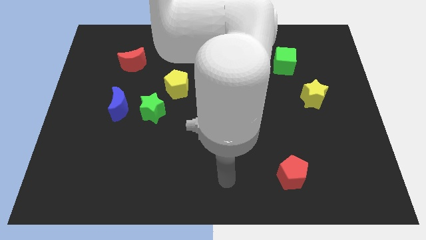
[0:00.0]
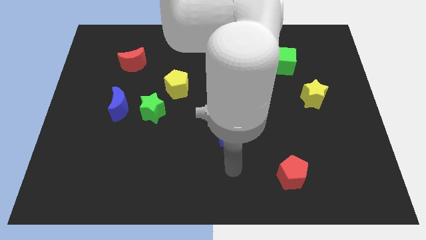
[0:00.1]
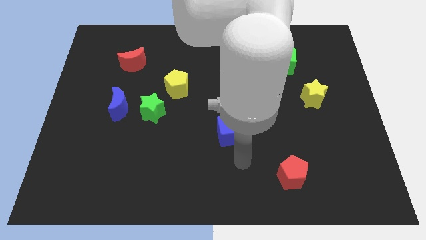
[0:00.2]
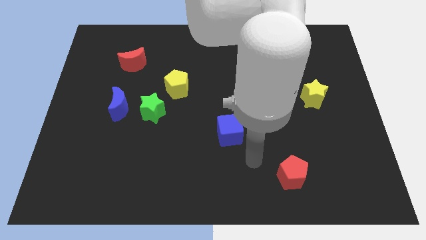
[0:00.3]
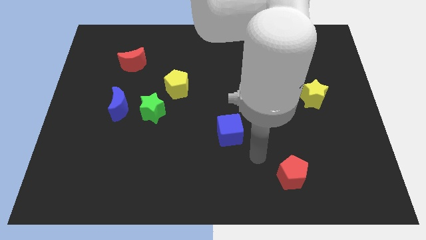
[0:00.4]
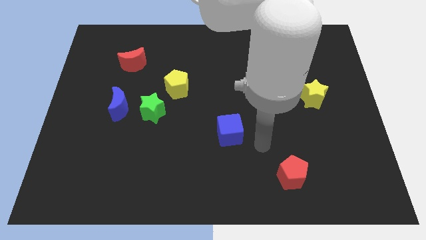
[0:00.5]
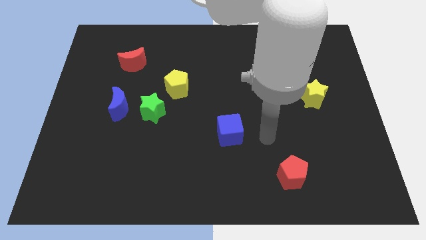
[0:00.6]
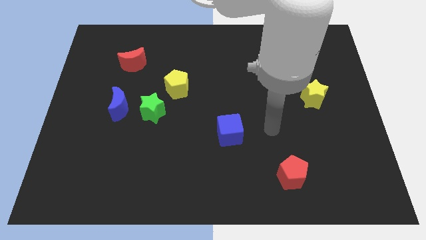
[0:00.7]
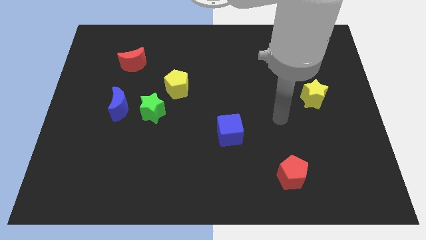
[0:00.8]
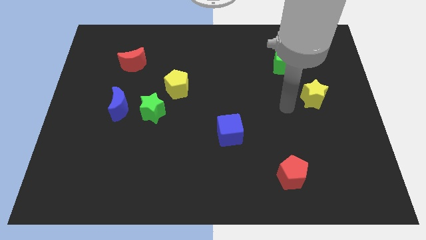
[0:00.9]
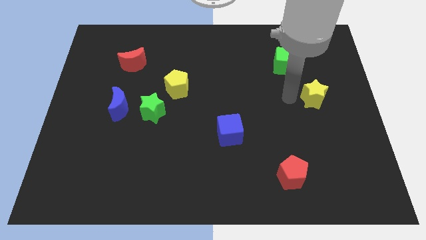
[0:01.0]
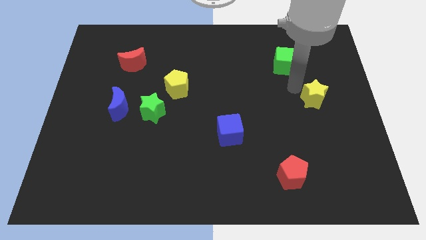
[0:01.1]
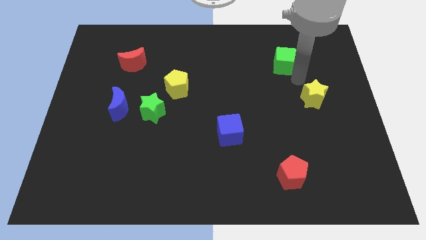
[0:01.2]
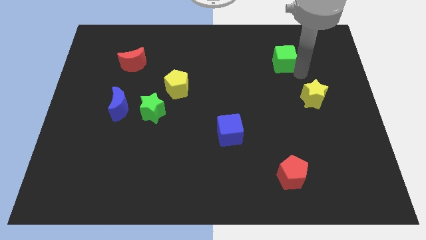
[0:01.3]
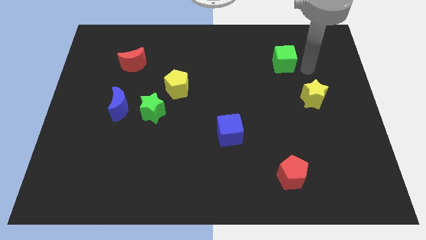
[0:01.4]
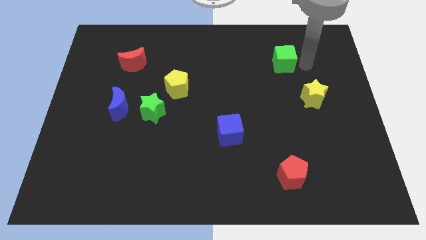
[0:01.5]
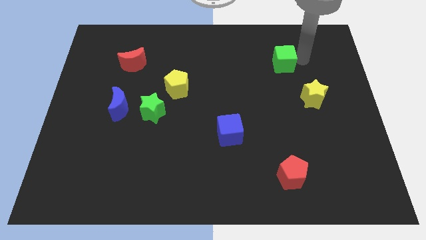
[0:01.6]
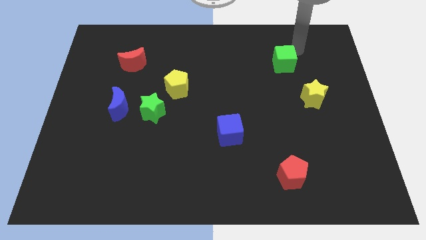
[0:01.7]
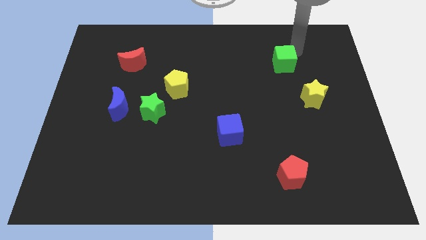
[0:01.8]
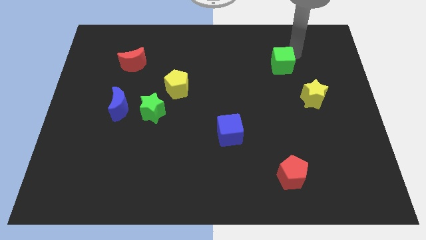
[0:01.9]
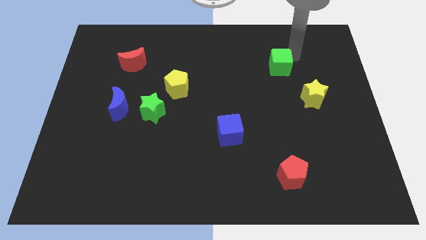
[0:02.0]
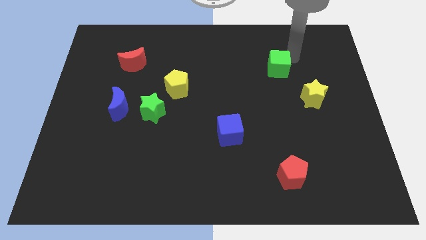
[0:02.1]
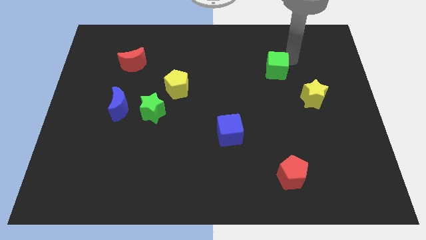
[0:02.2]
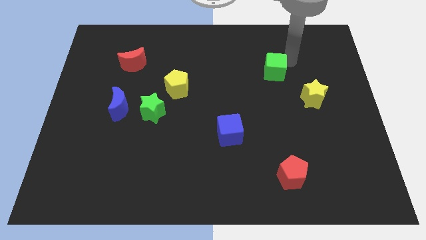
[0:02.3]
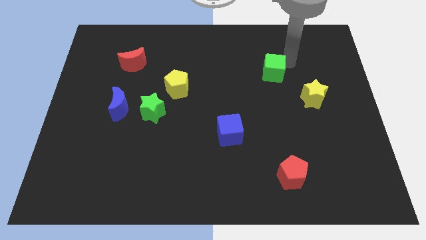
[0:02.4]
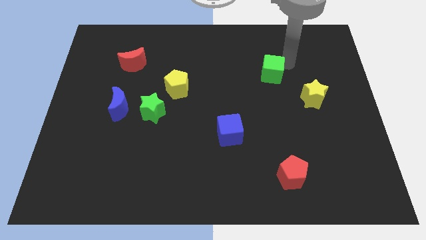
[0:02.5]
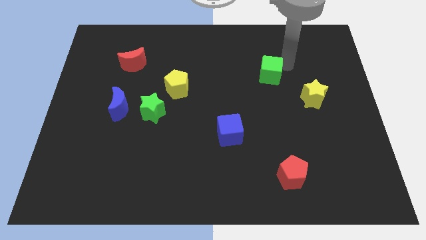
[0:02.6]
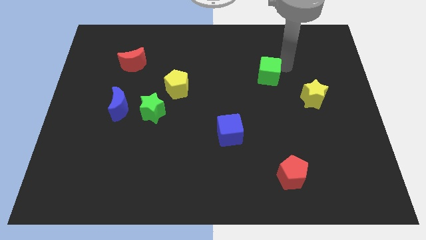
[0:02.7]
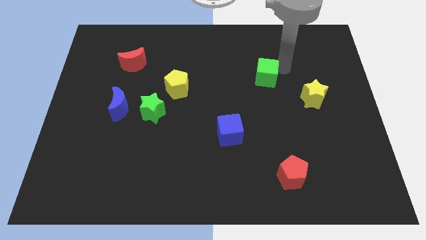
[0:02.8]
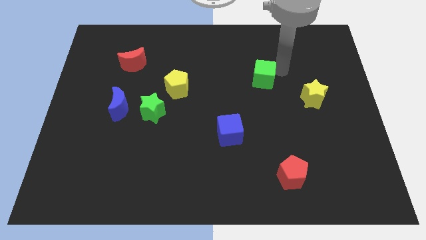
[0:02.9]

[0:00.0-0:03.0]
slightly push the green cube downwards and left diagonally

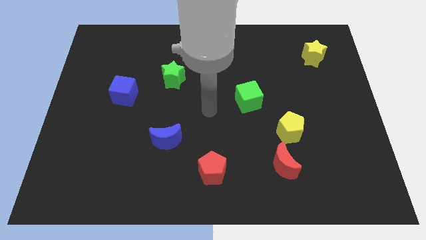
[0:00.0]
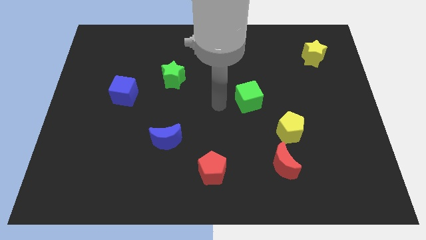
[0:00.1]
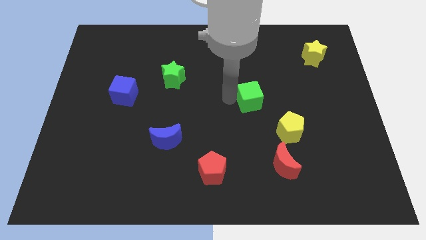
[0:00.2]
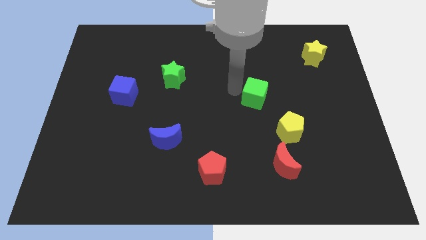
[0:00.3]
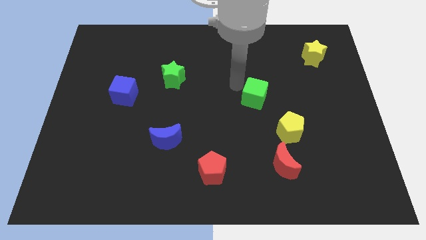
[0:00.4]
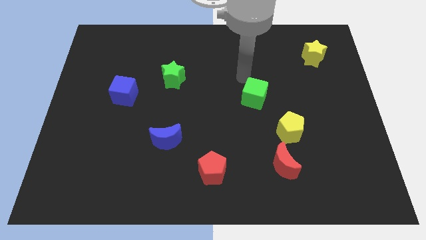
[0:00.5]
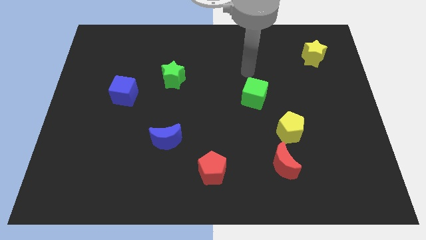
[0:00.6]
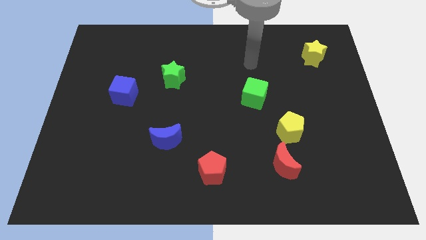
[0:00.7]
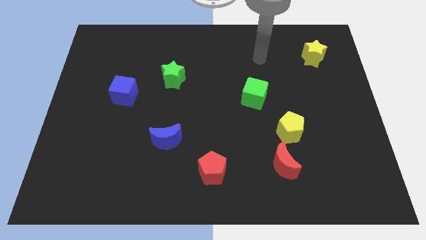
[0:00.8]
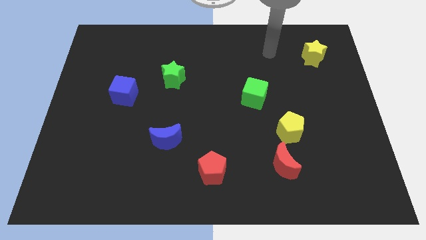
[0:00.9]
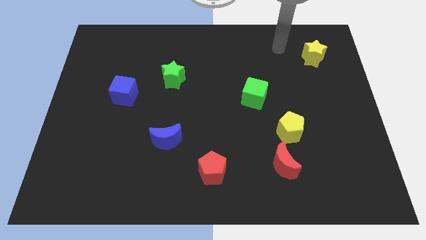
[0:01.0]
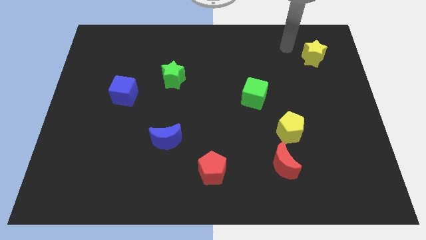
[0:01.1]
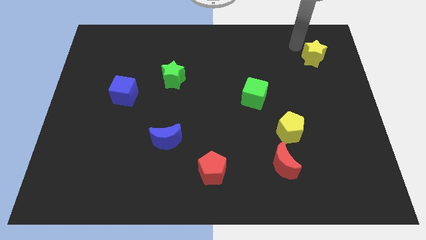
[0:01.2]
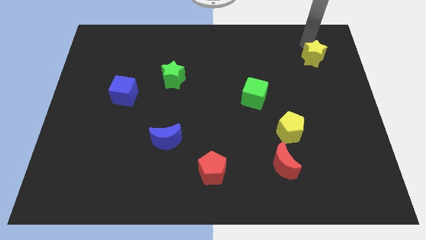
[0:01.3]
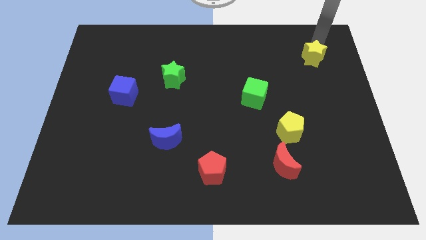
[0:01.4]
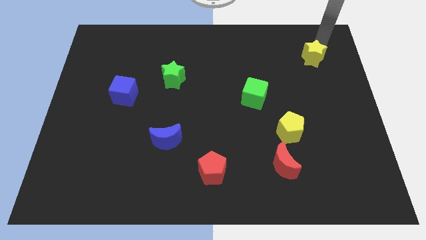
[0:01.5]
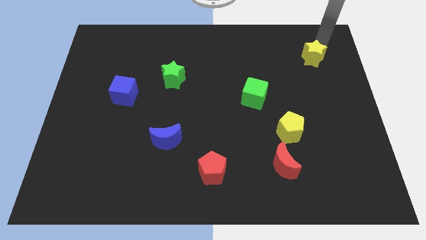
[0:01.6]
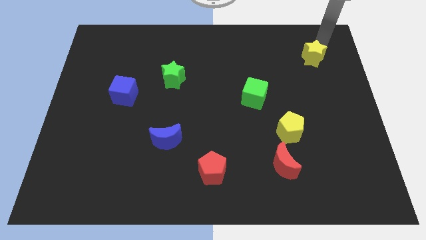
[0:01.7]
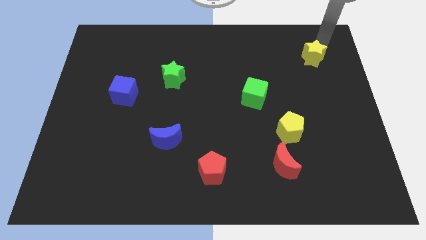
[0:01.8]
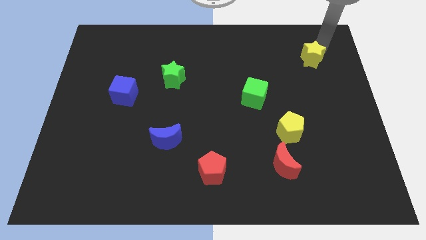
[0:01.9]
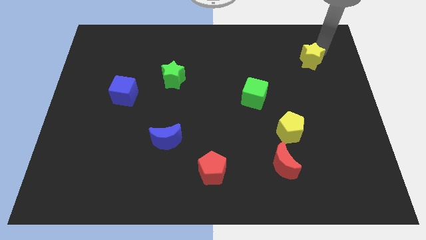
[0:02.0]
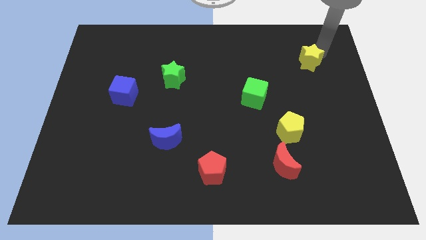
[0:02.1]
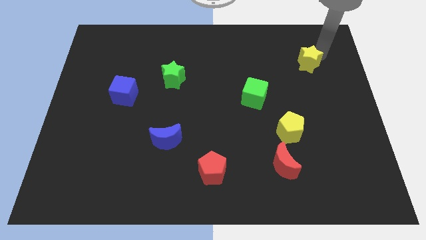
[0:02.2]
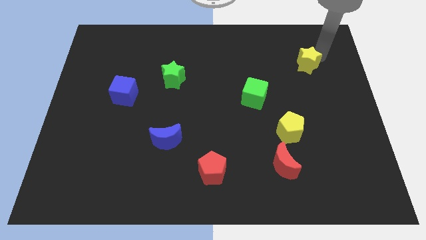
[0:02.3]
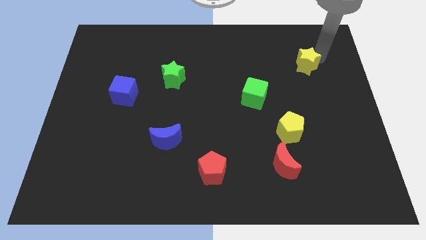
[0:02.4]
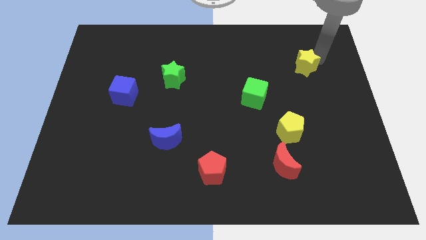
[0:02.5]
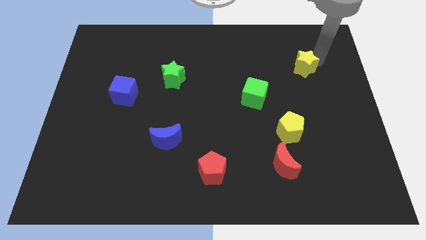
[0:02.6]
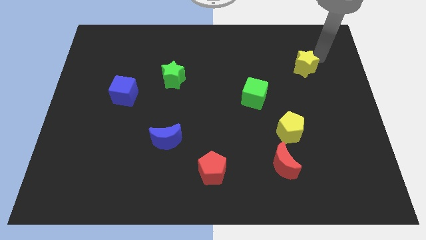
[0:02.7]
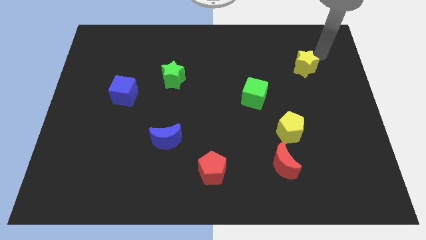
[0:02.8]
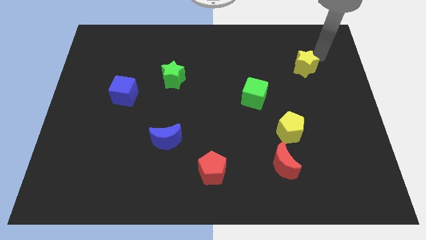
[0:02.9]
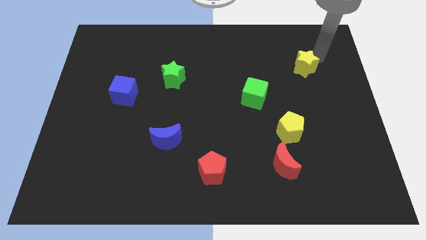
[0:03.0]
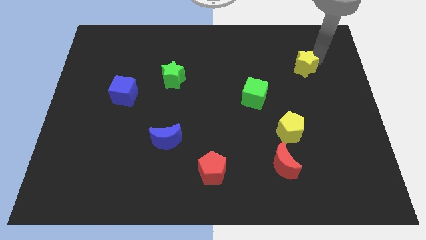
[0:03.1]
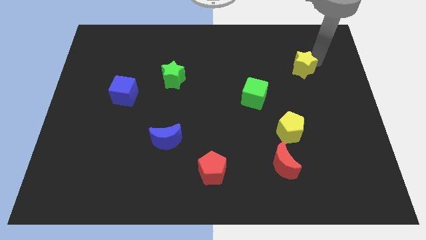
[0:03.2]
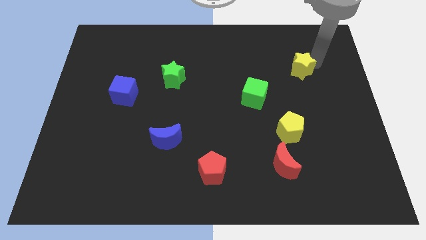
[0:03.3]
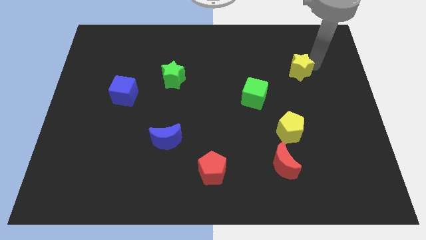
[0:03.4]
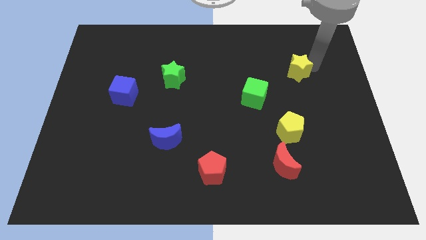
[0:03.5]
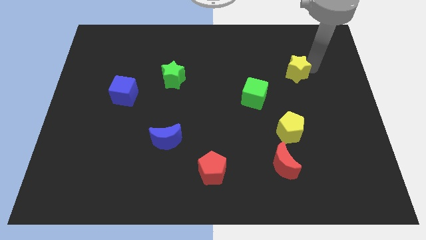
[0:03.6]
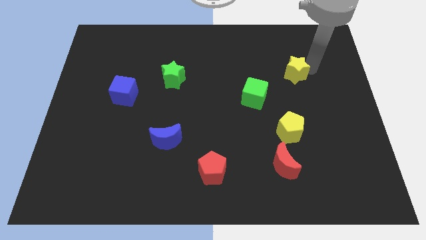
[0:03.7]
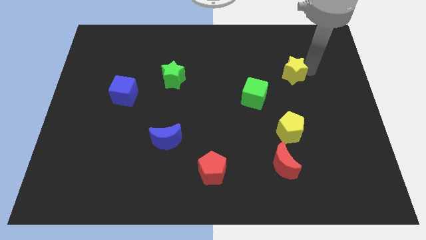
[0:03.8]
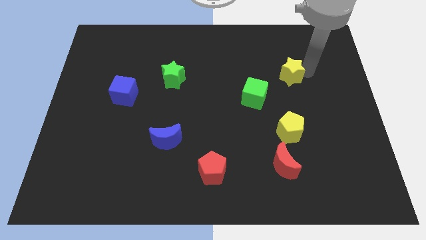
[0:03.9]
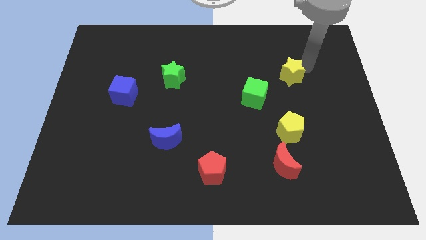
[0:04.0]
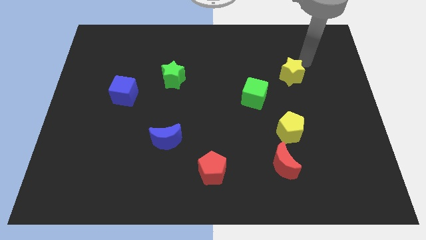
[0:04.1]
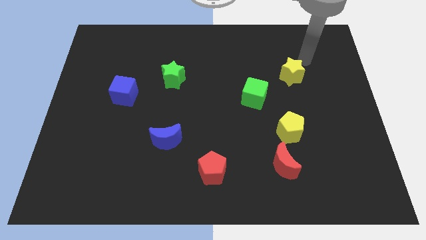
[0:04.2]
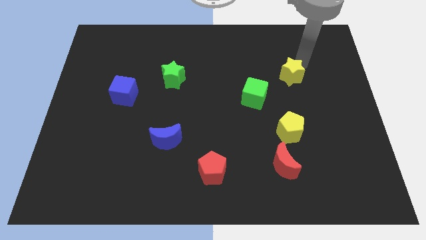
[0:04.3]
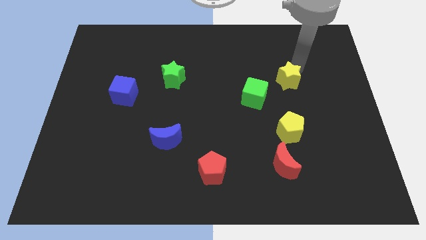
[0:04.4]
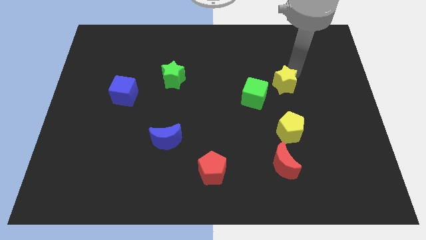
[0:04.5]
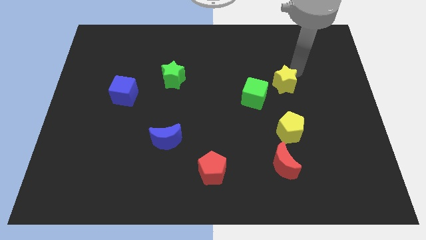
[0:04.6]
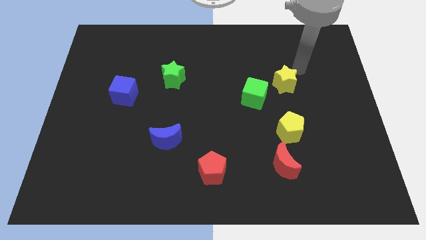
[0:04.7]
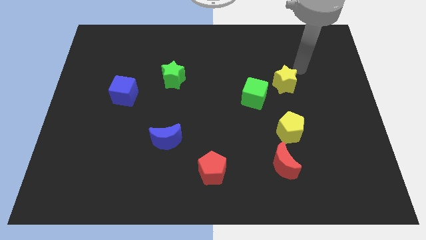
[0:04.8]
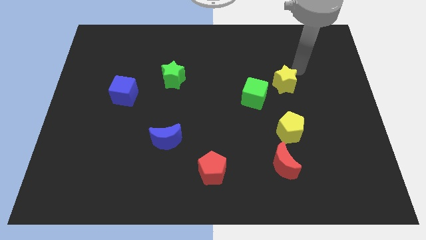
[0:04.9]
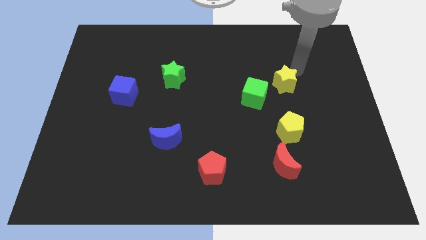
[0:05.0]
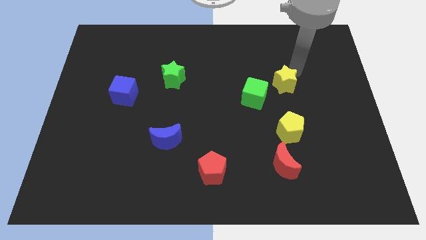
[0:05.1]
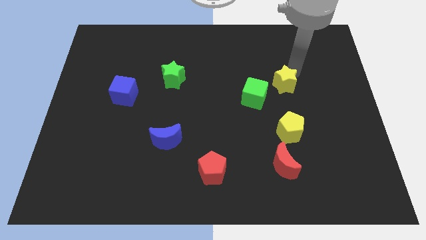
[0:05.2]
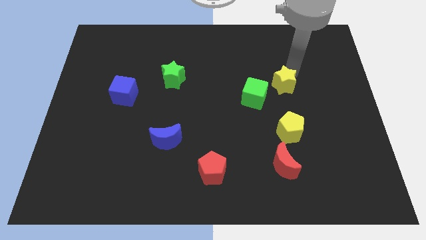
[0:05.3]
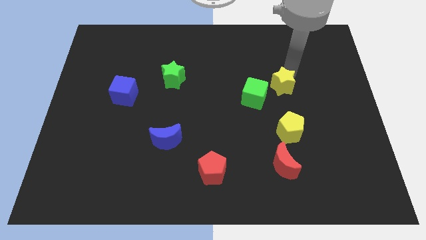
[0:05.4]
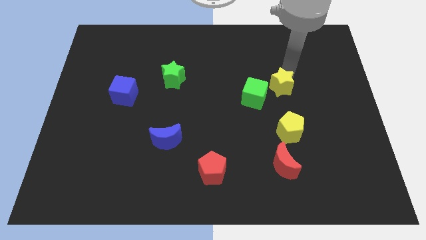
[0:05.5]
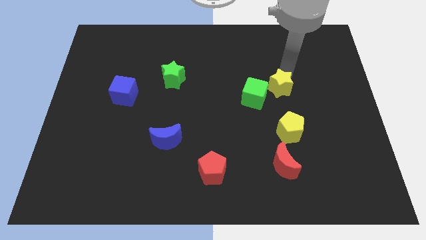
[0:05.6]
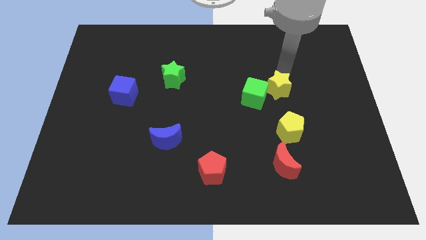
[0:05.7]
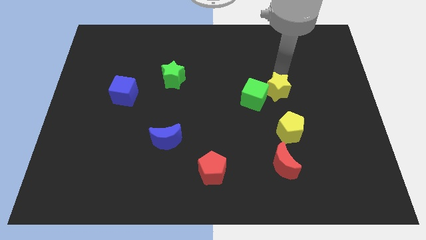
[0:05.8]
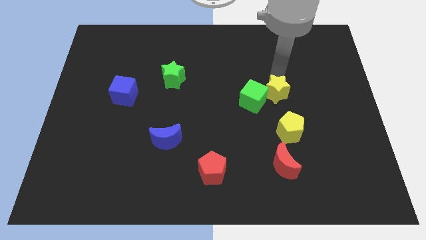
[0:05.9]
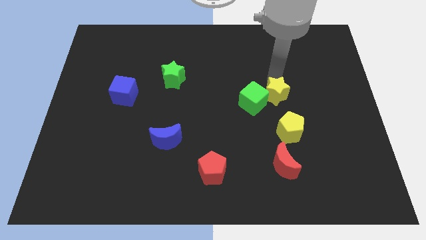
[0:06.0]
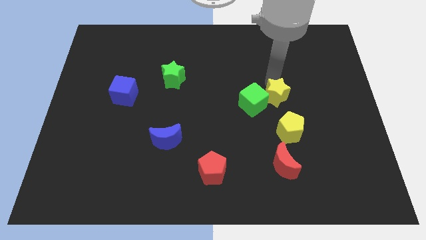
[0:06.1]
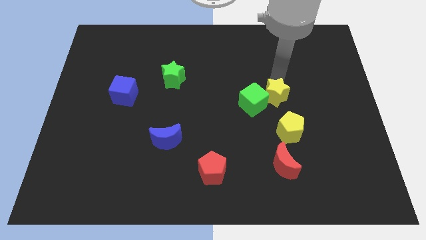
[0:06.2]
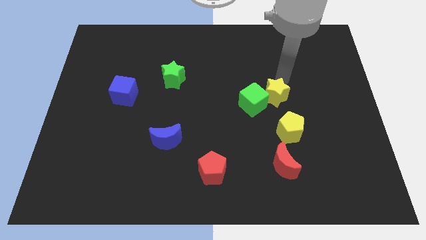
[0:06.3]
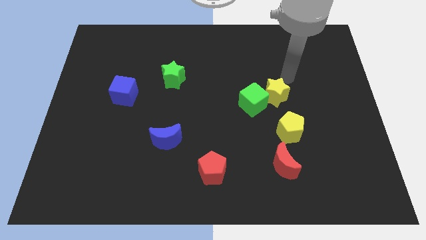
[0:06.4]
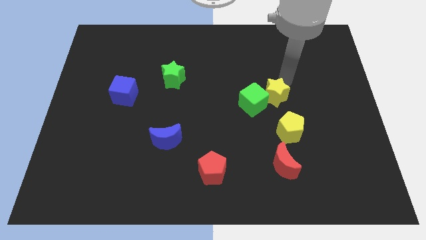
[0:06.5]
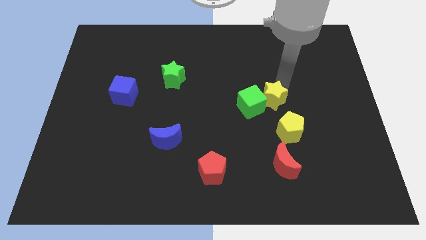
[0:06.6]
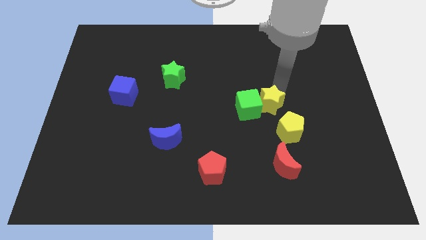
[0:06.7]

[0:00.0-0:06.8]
move the yellow star downwards and left
